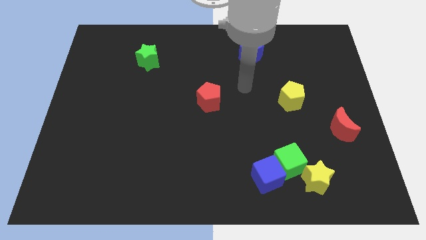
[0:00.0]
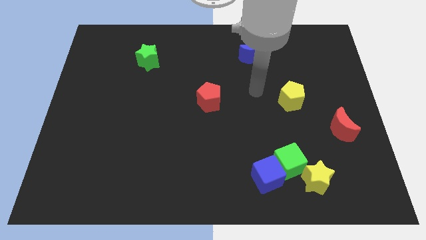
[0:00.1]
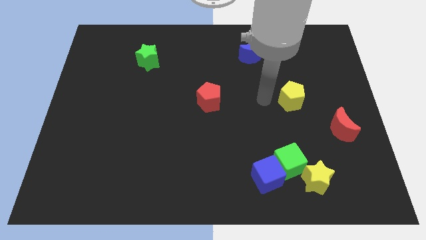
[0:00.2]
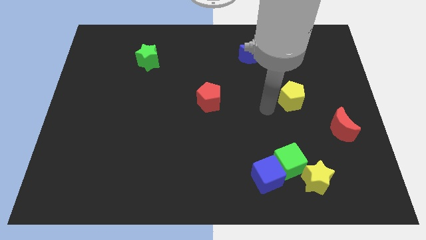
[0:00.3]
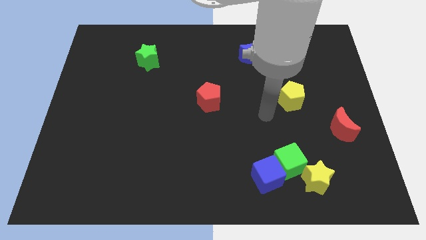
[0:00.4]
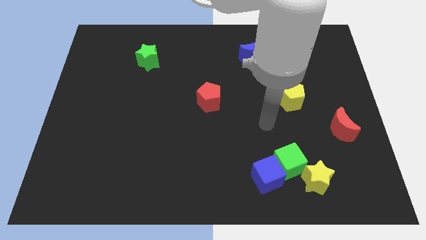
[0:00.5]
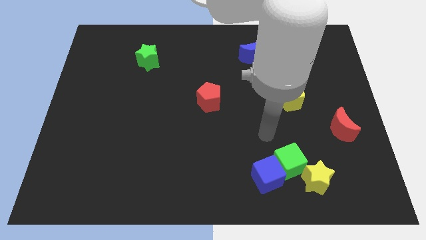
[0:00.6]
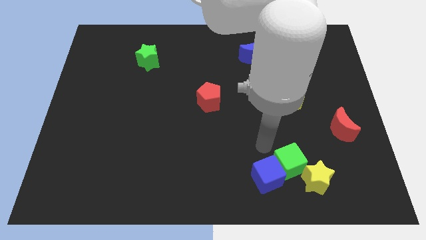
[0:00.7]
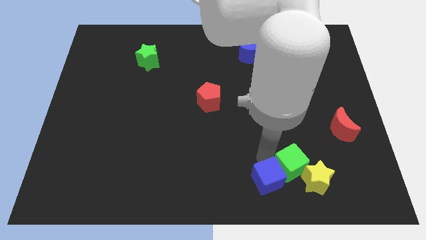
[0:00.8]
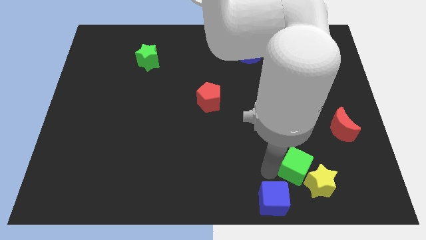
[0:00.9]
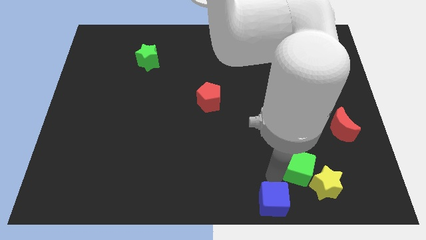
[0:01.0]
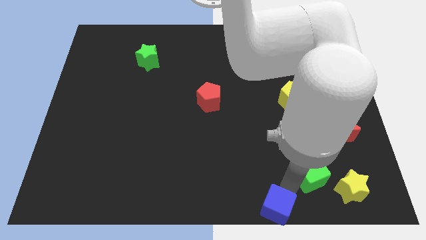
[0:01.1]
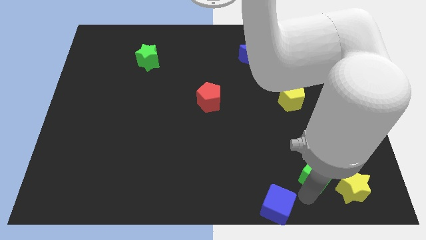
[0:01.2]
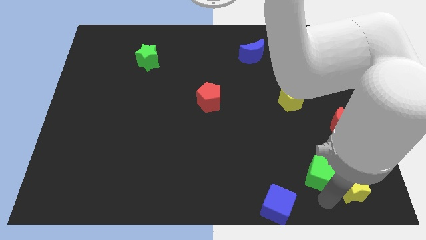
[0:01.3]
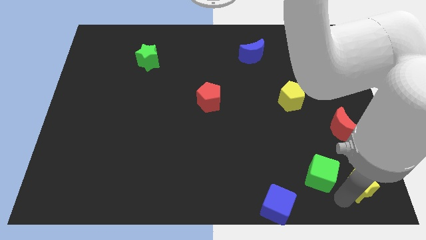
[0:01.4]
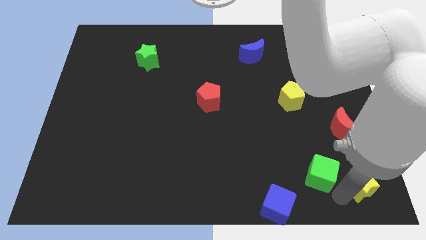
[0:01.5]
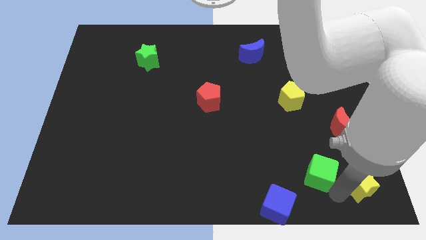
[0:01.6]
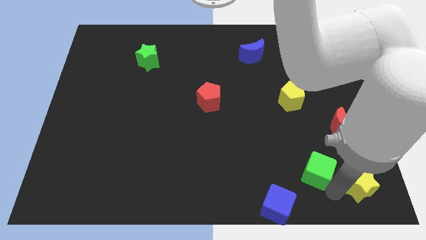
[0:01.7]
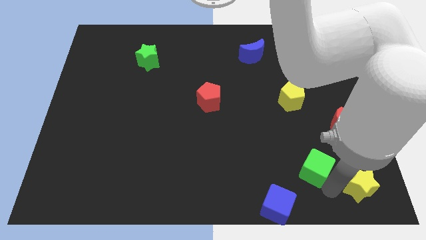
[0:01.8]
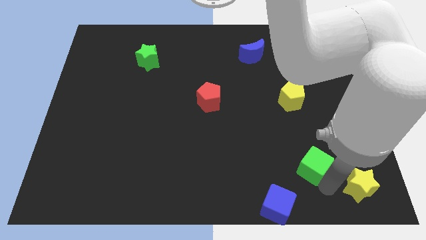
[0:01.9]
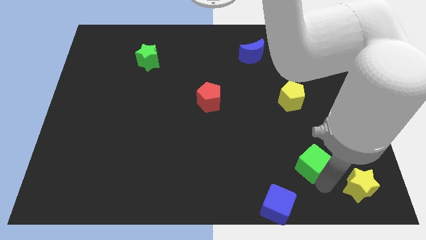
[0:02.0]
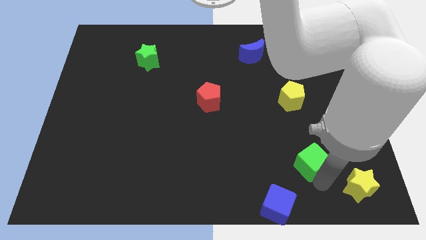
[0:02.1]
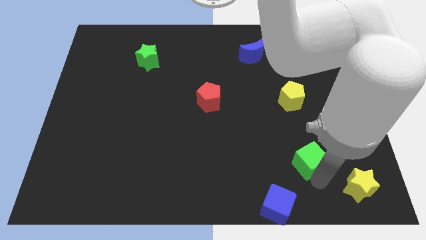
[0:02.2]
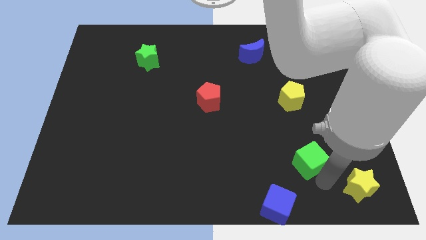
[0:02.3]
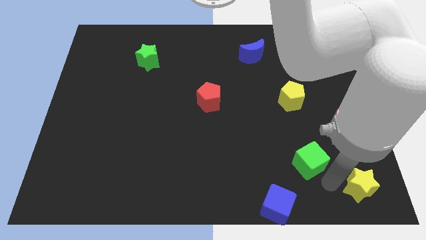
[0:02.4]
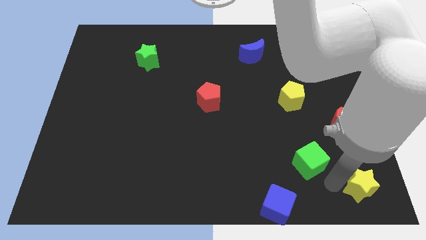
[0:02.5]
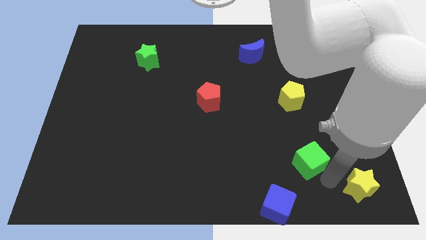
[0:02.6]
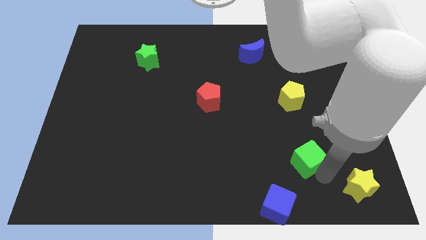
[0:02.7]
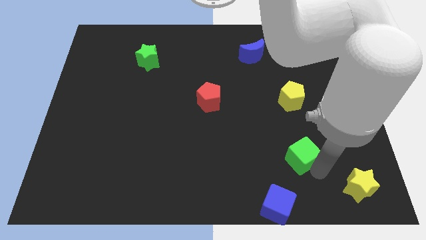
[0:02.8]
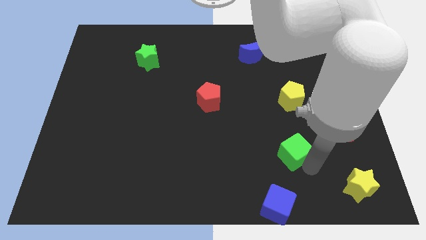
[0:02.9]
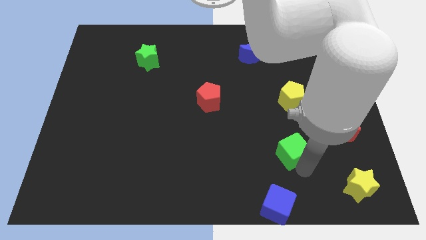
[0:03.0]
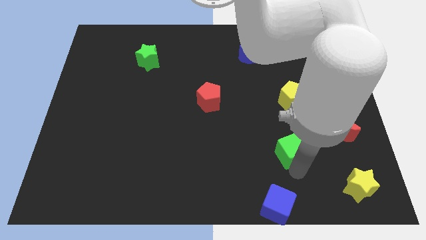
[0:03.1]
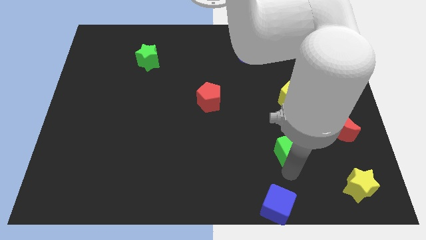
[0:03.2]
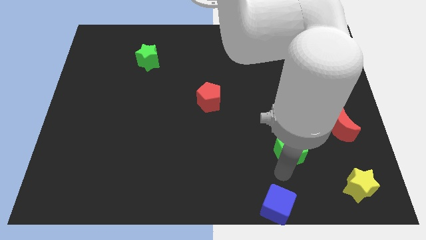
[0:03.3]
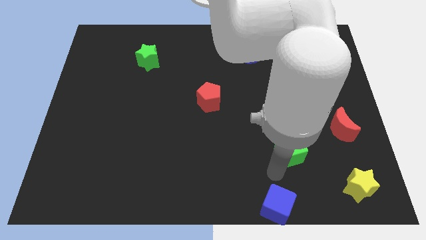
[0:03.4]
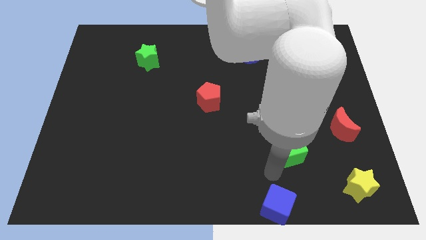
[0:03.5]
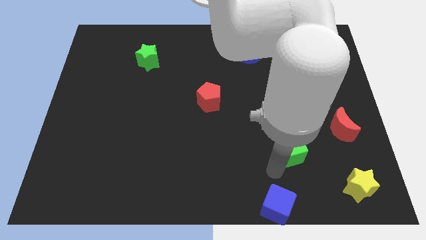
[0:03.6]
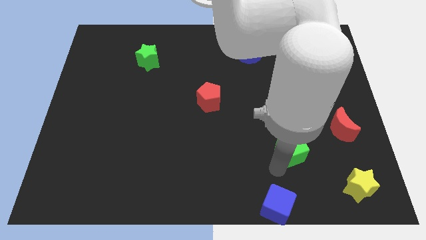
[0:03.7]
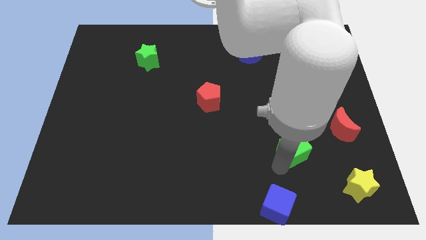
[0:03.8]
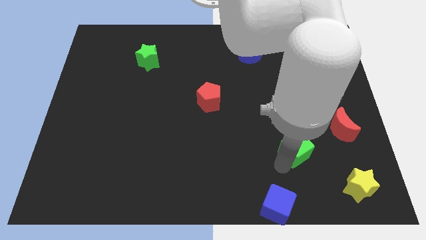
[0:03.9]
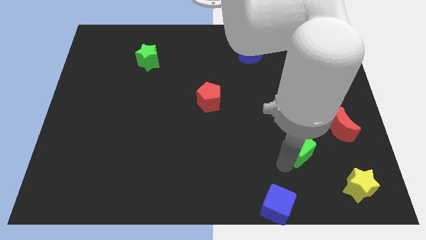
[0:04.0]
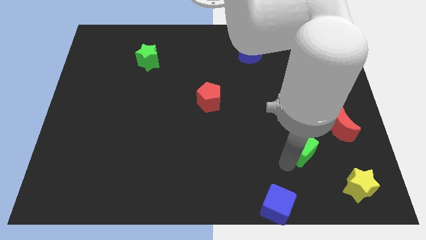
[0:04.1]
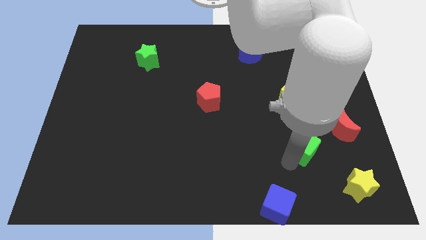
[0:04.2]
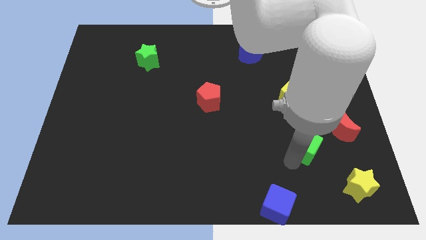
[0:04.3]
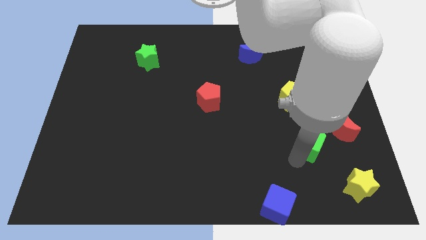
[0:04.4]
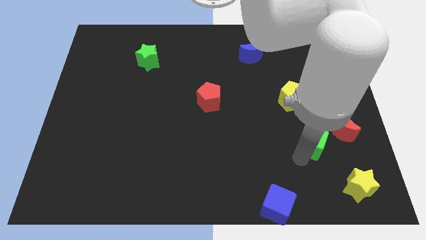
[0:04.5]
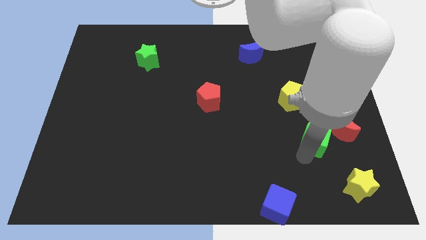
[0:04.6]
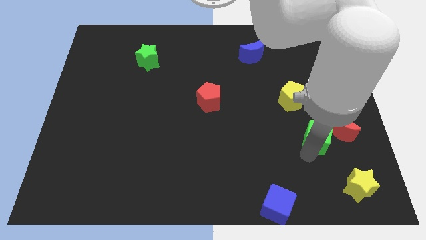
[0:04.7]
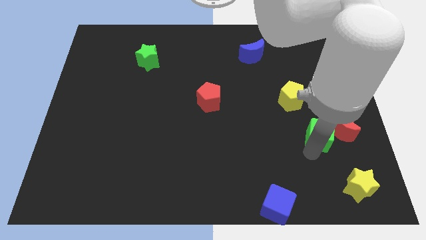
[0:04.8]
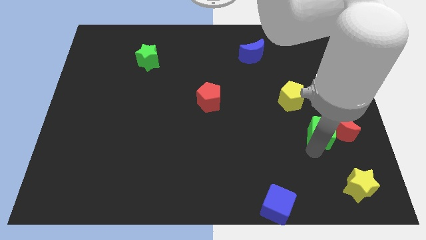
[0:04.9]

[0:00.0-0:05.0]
push the green cube to the top left of the red moon

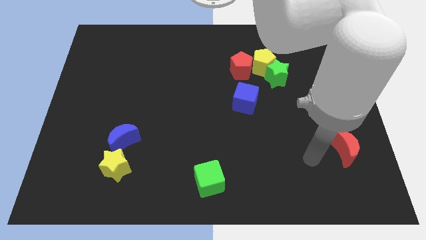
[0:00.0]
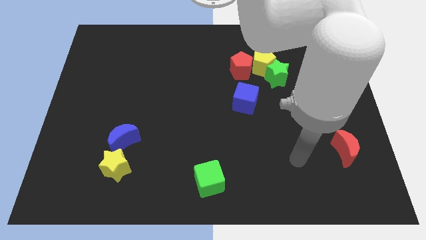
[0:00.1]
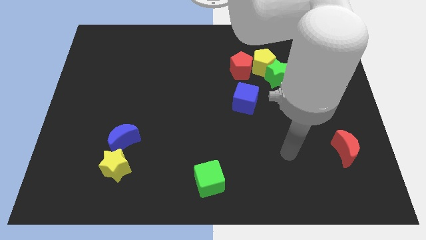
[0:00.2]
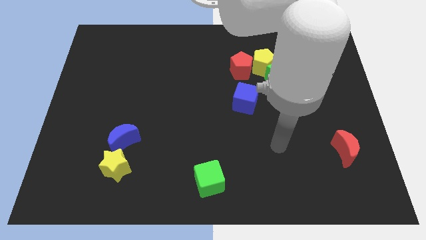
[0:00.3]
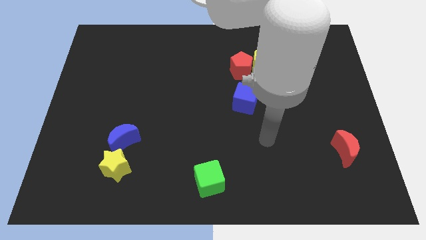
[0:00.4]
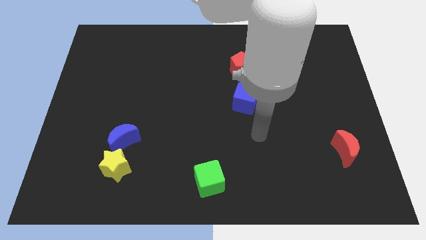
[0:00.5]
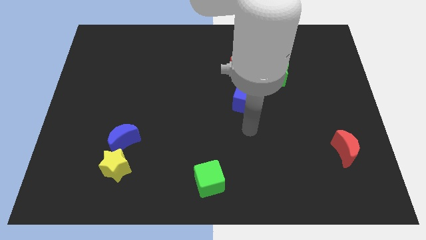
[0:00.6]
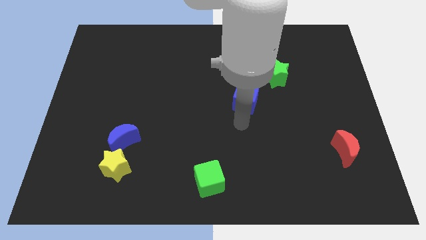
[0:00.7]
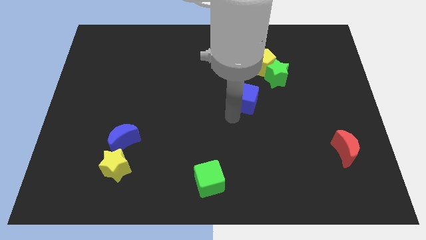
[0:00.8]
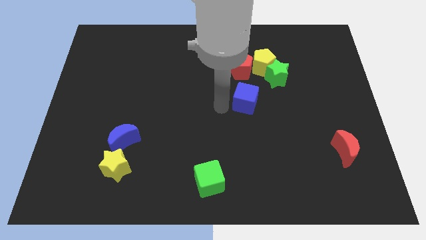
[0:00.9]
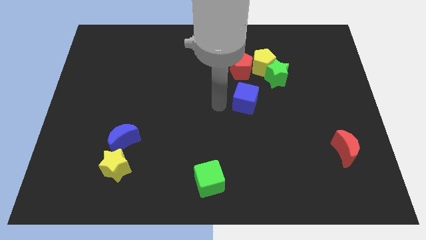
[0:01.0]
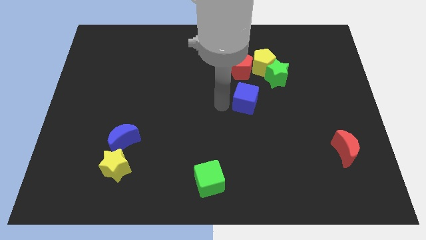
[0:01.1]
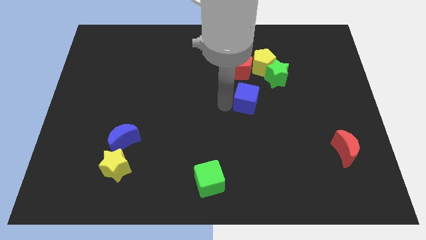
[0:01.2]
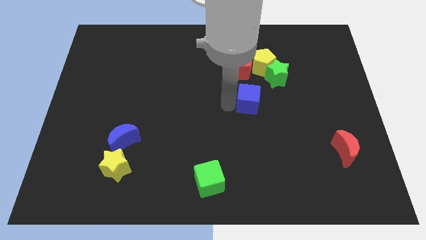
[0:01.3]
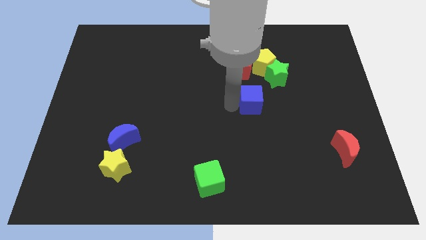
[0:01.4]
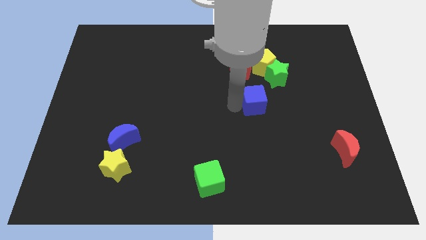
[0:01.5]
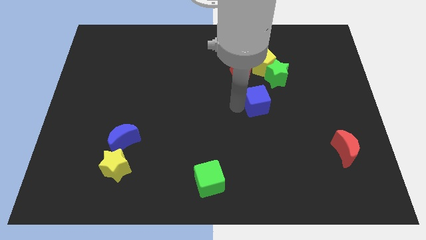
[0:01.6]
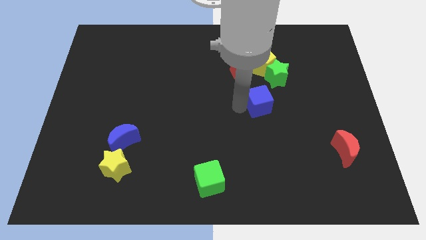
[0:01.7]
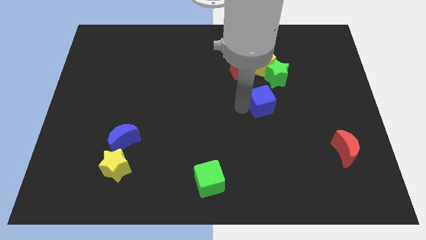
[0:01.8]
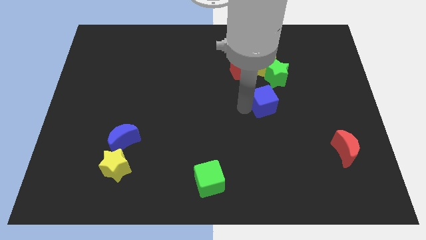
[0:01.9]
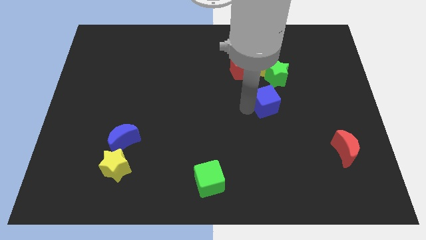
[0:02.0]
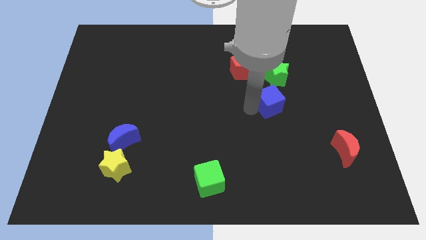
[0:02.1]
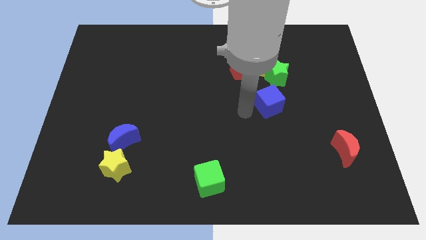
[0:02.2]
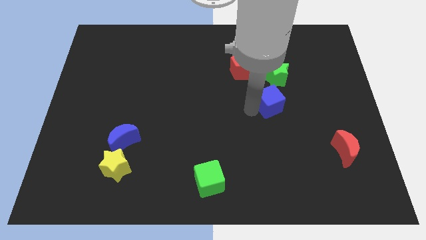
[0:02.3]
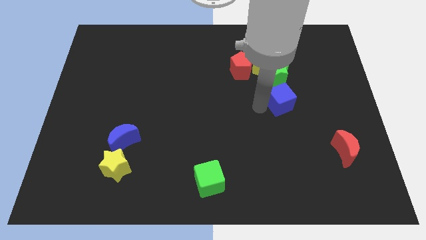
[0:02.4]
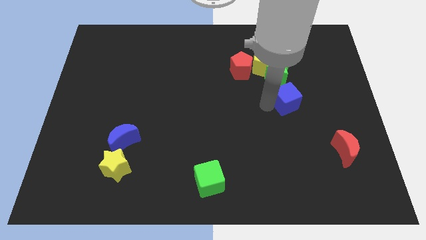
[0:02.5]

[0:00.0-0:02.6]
push the blue cube diagonally down and to the right of the green star

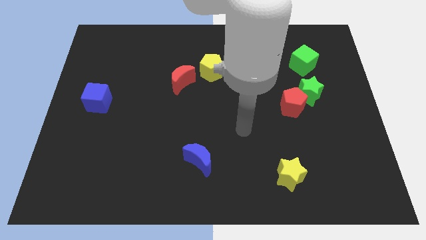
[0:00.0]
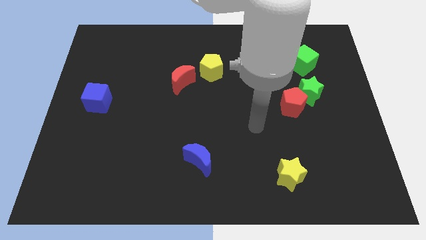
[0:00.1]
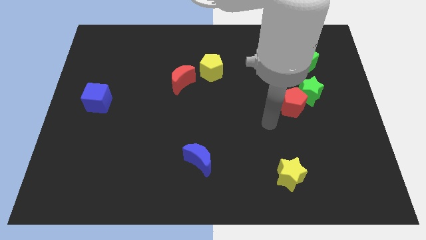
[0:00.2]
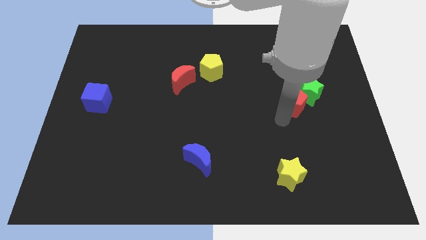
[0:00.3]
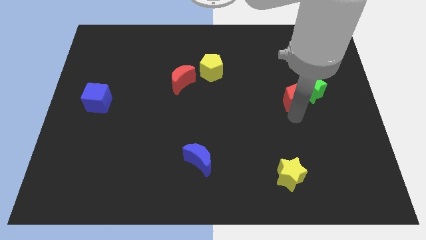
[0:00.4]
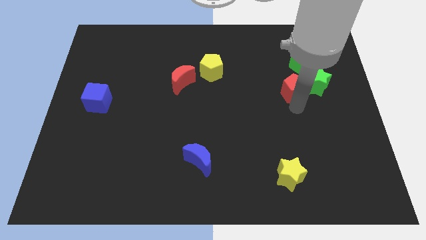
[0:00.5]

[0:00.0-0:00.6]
put the green star diagonally down and to the right of the green cube
